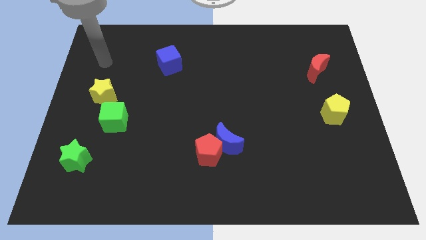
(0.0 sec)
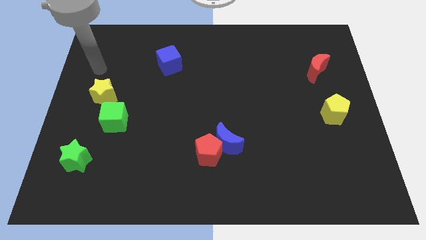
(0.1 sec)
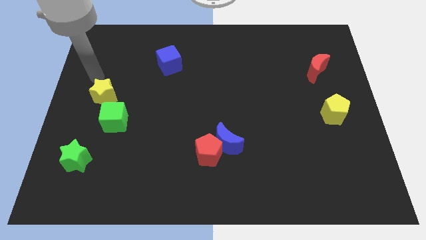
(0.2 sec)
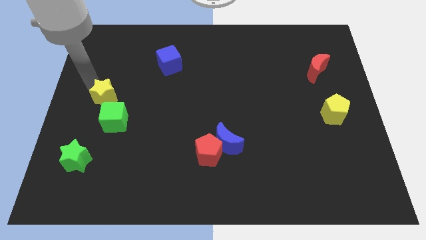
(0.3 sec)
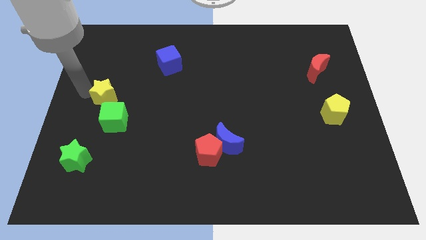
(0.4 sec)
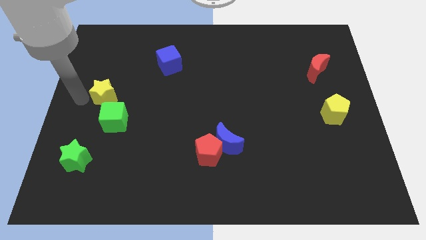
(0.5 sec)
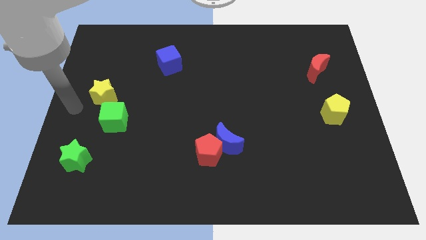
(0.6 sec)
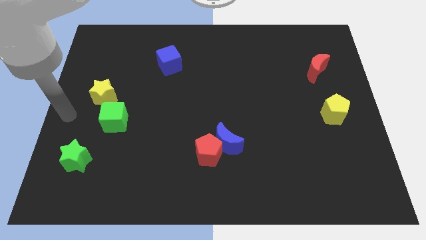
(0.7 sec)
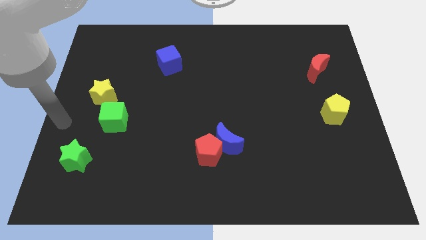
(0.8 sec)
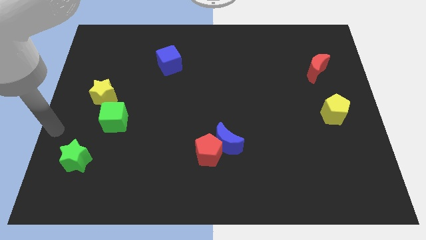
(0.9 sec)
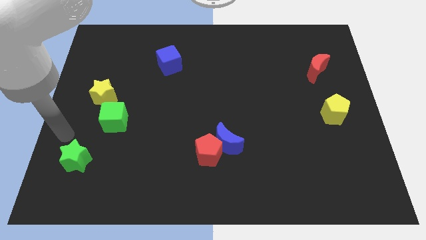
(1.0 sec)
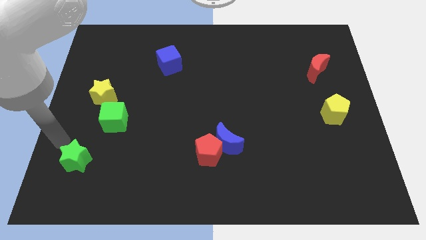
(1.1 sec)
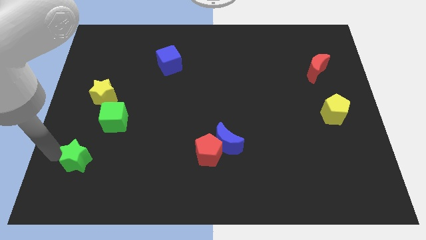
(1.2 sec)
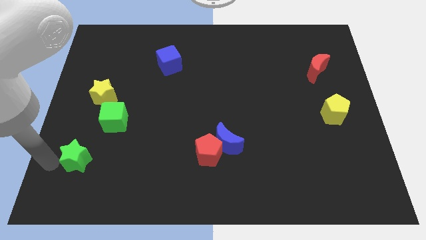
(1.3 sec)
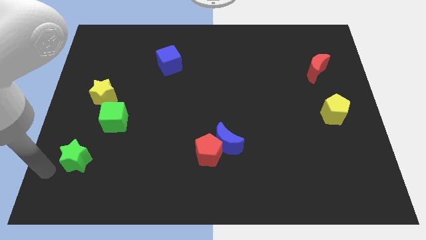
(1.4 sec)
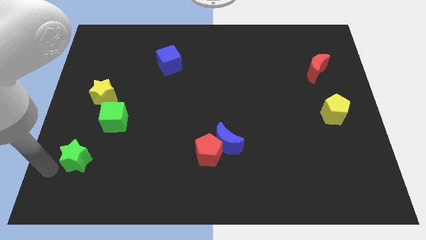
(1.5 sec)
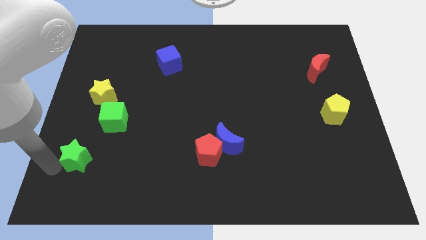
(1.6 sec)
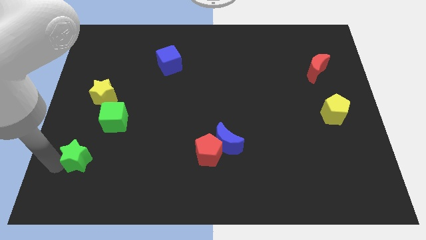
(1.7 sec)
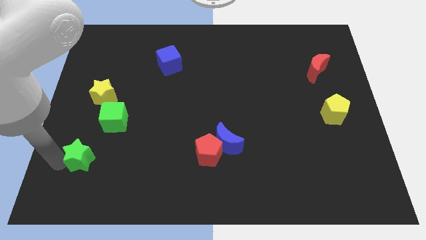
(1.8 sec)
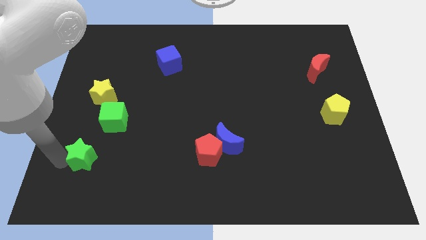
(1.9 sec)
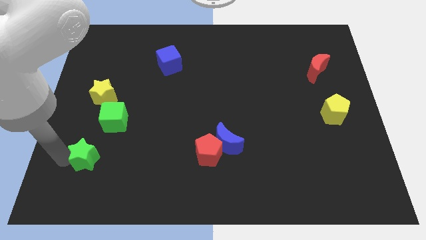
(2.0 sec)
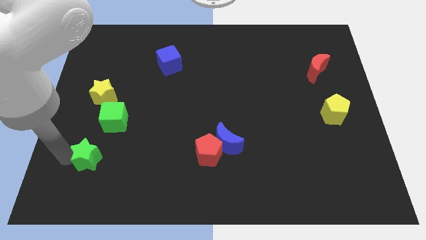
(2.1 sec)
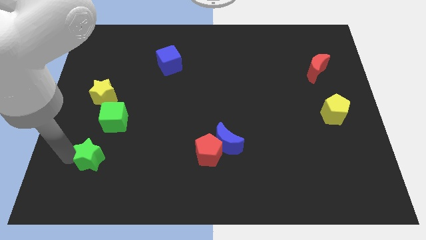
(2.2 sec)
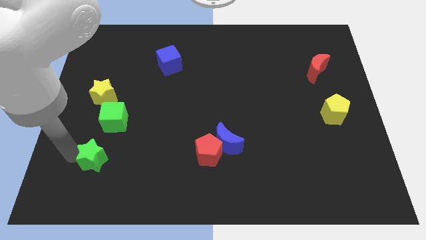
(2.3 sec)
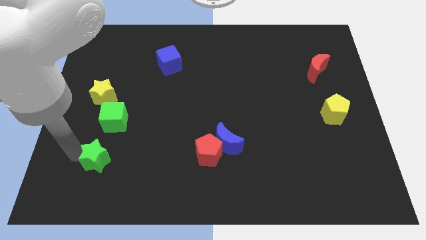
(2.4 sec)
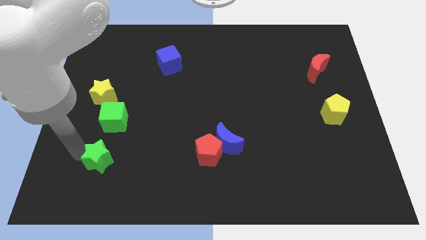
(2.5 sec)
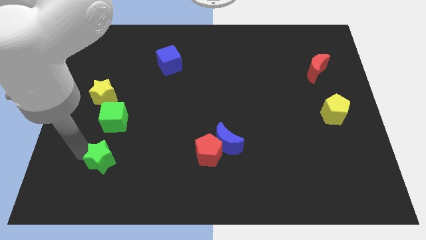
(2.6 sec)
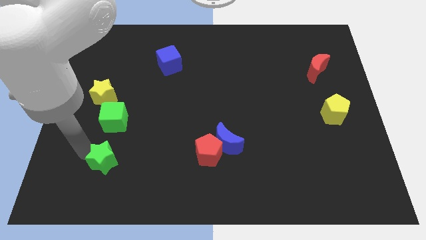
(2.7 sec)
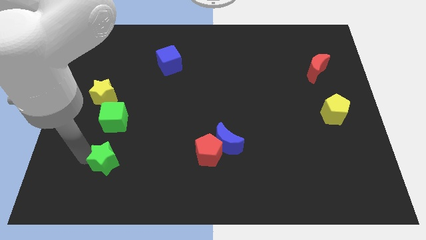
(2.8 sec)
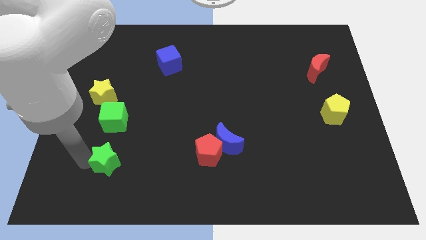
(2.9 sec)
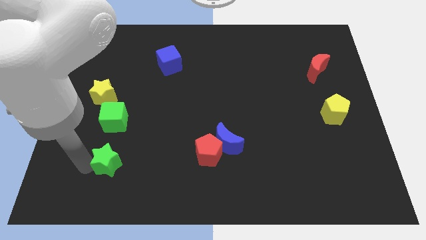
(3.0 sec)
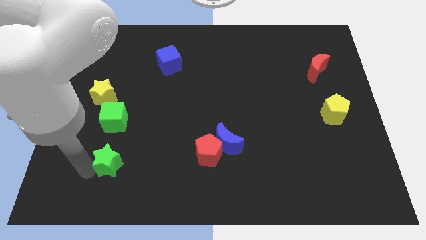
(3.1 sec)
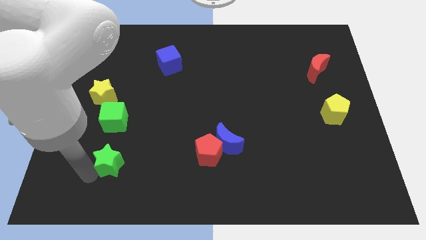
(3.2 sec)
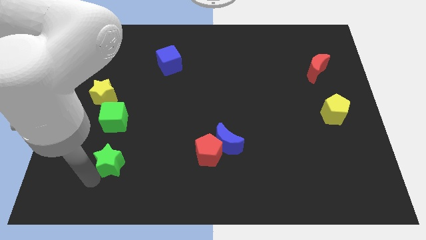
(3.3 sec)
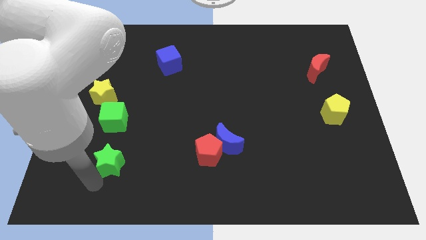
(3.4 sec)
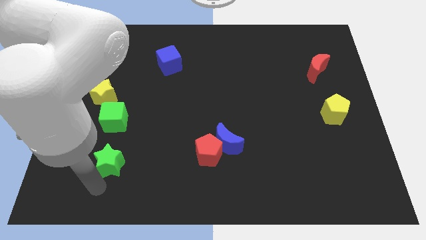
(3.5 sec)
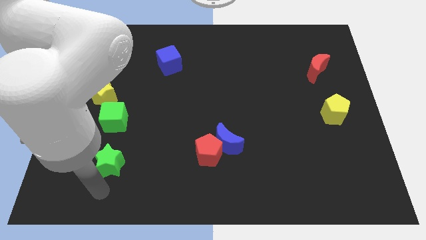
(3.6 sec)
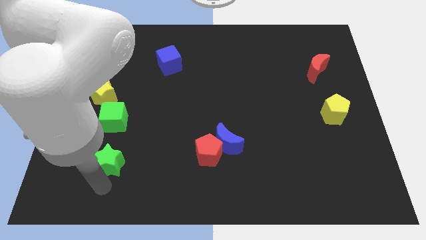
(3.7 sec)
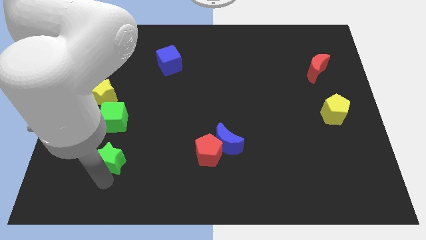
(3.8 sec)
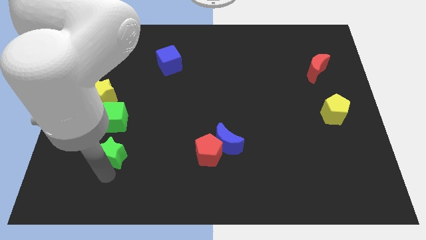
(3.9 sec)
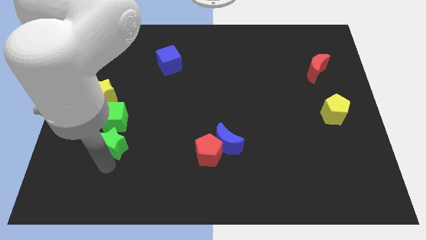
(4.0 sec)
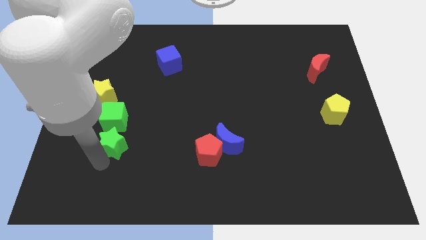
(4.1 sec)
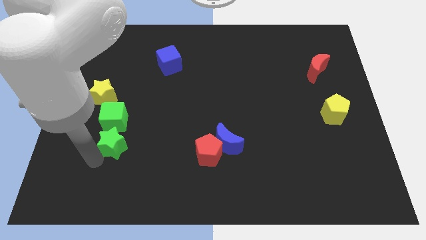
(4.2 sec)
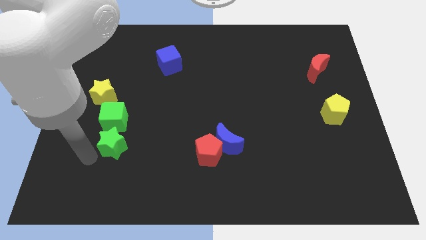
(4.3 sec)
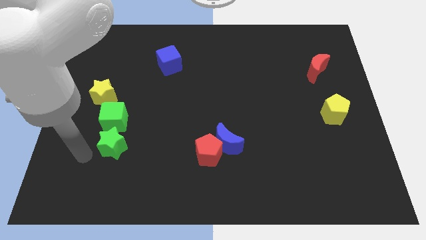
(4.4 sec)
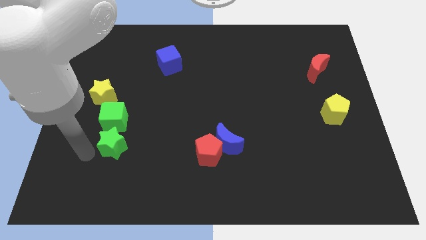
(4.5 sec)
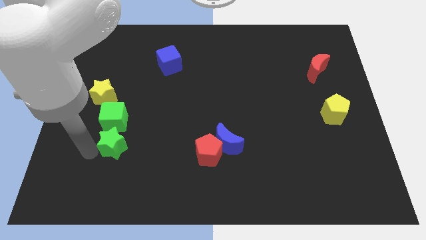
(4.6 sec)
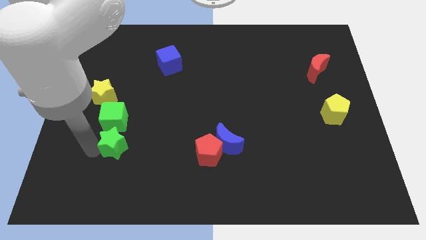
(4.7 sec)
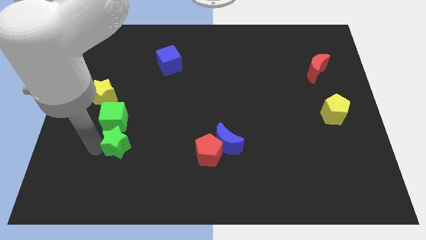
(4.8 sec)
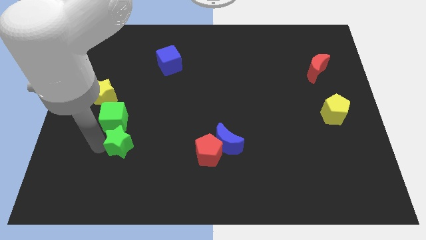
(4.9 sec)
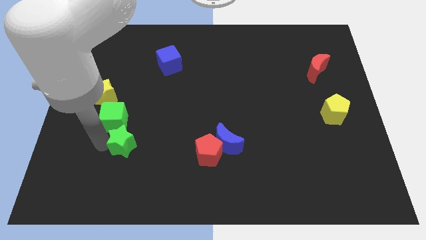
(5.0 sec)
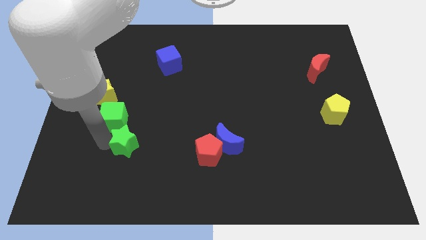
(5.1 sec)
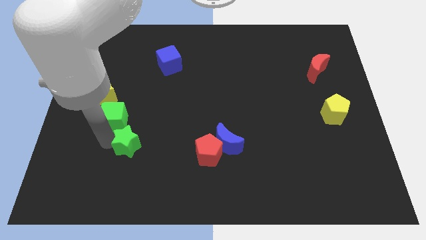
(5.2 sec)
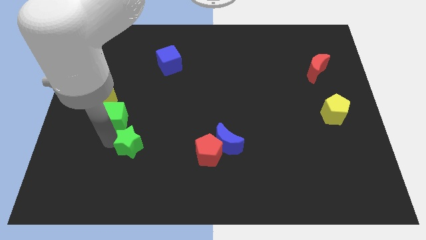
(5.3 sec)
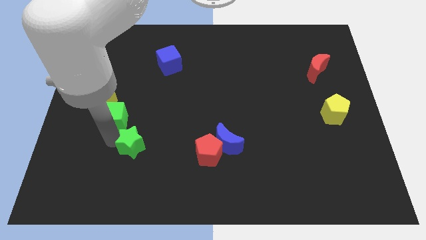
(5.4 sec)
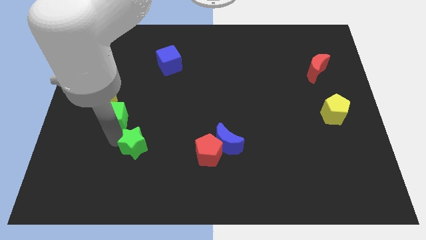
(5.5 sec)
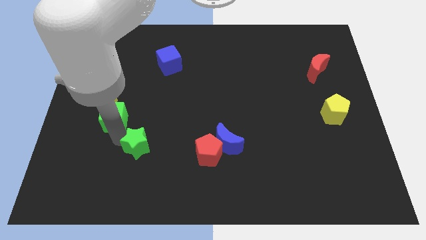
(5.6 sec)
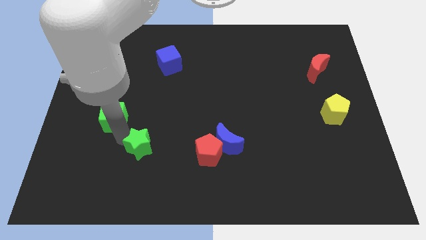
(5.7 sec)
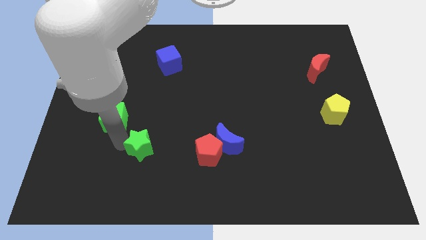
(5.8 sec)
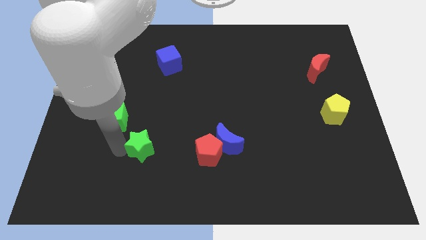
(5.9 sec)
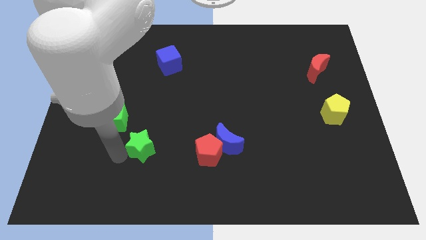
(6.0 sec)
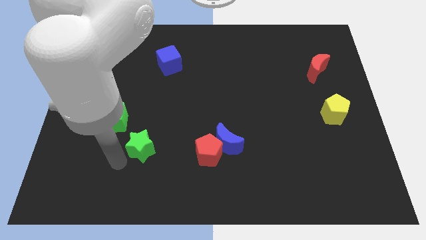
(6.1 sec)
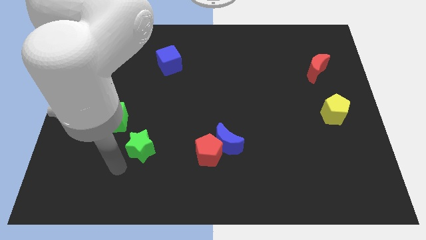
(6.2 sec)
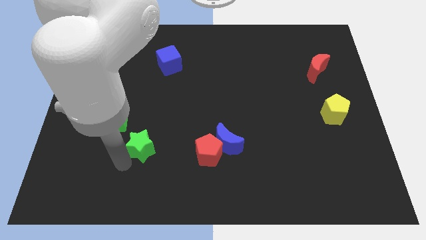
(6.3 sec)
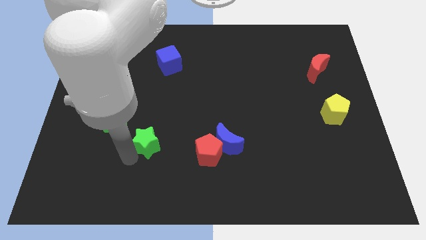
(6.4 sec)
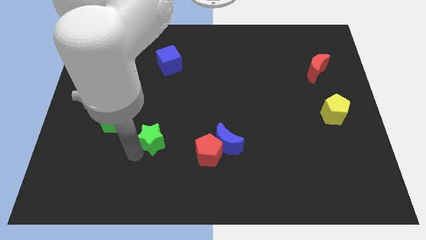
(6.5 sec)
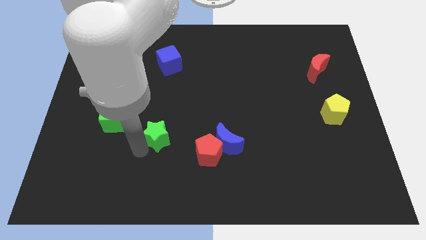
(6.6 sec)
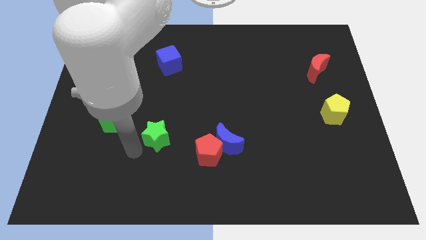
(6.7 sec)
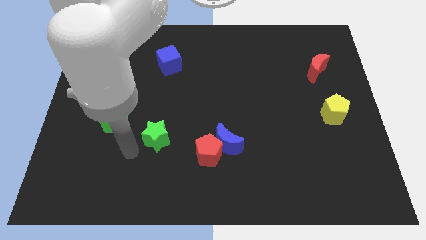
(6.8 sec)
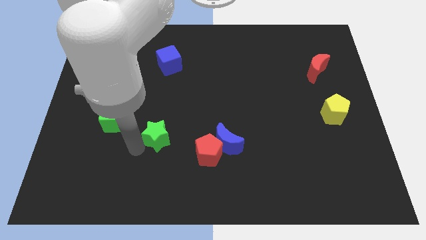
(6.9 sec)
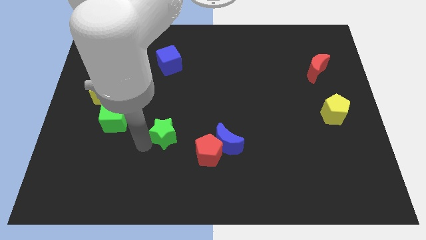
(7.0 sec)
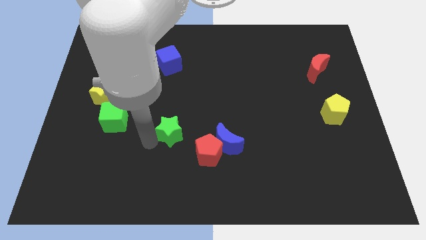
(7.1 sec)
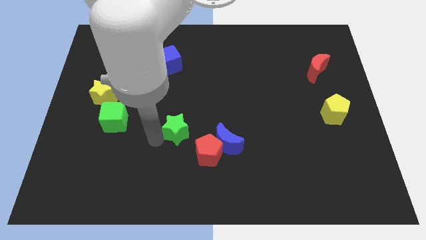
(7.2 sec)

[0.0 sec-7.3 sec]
slide the green star to the middle of the board
